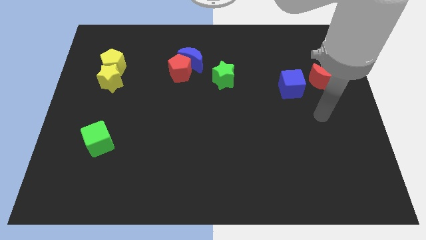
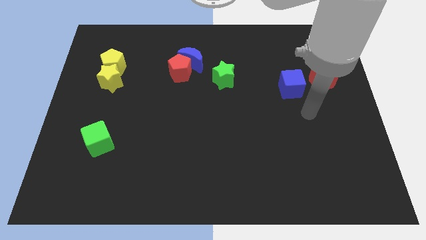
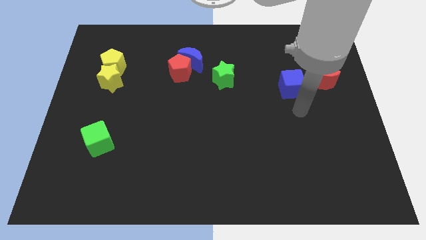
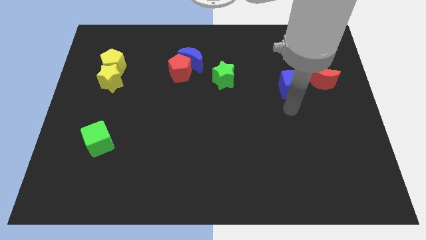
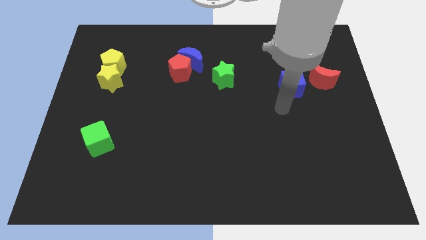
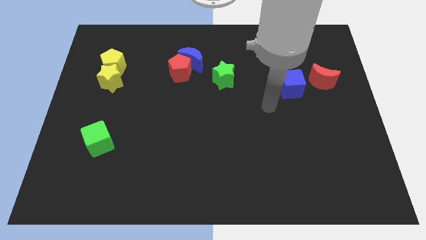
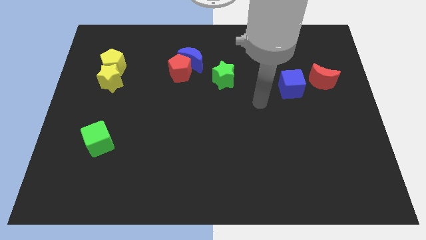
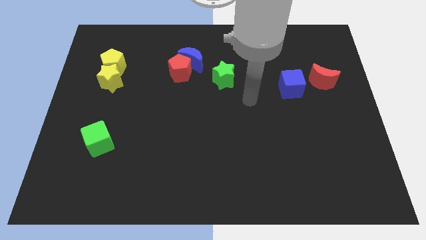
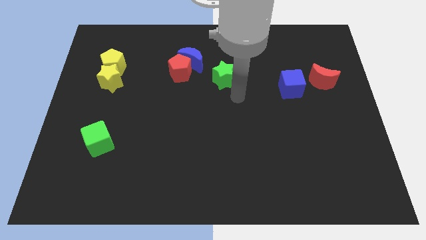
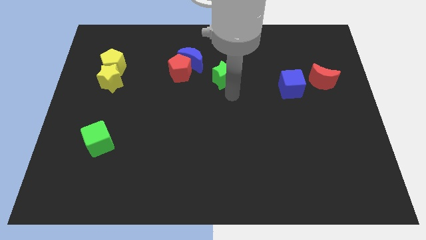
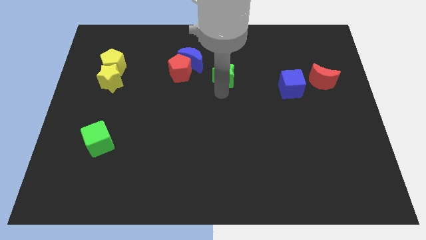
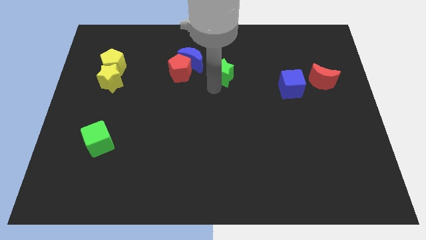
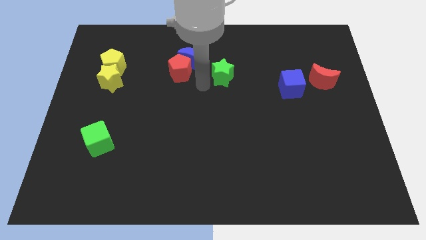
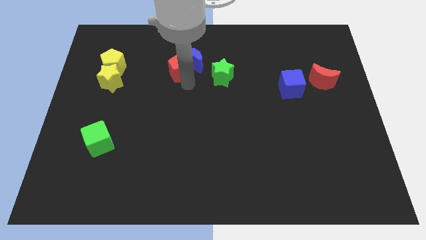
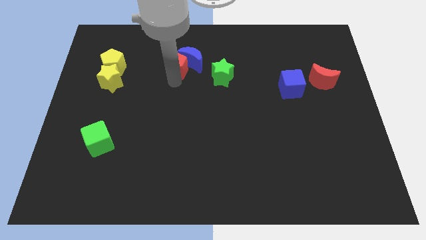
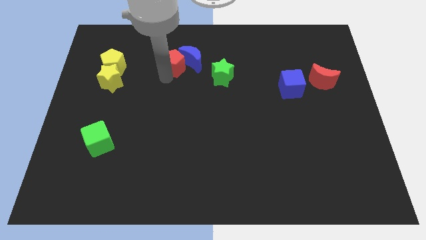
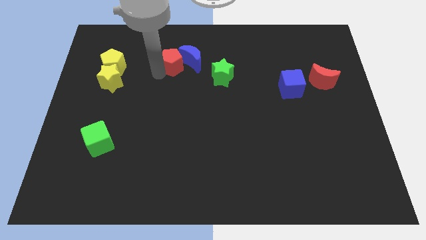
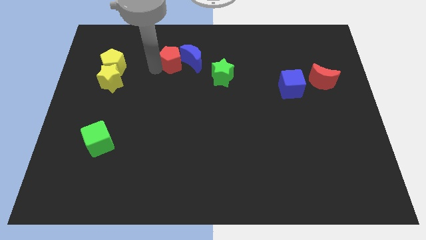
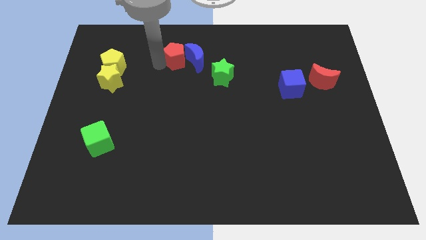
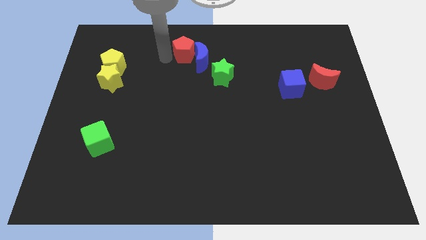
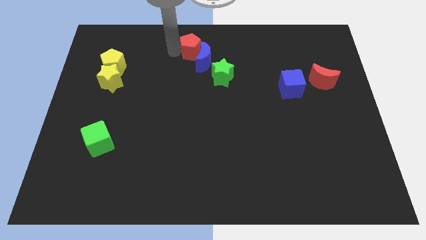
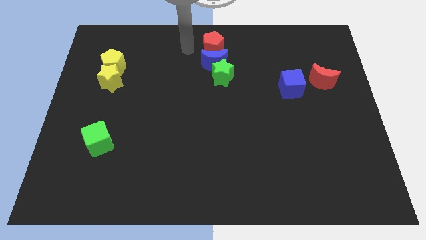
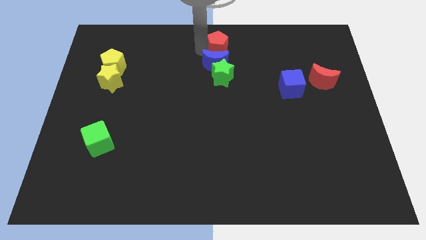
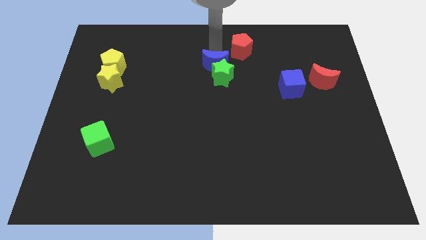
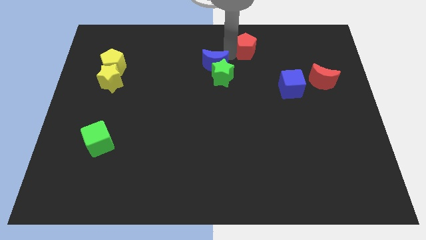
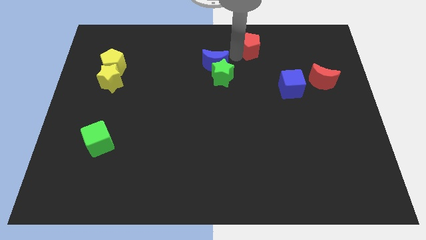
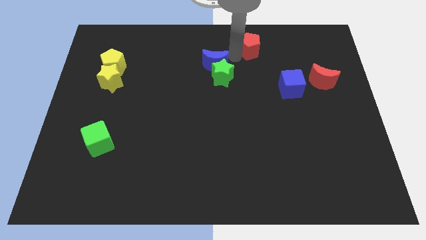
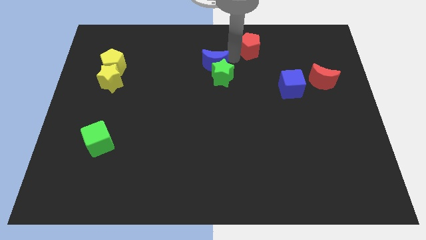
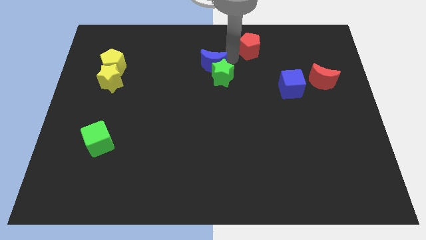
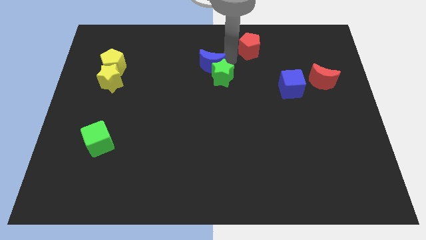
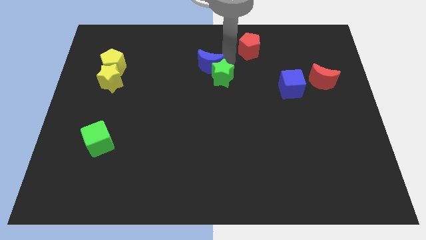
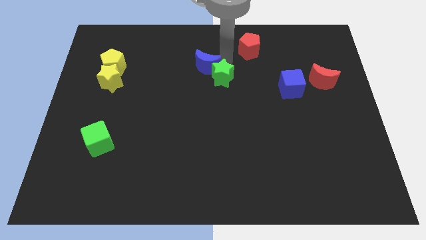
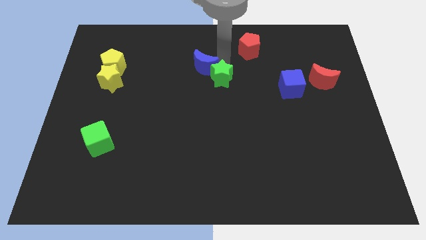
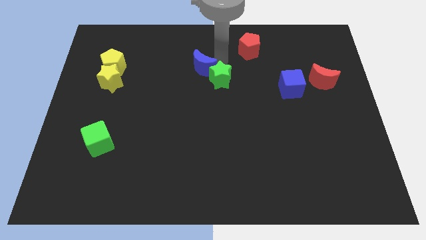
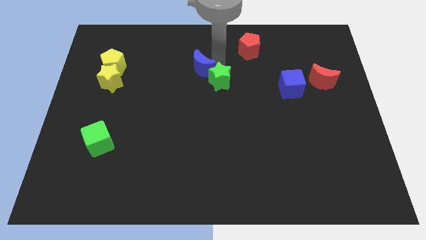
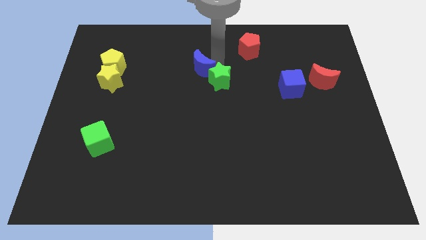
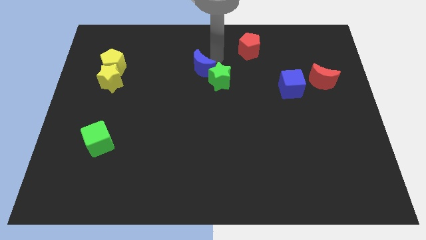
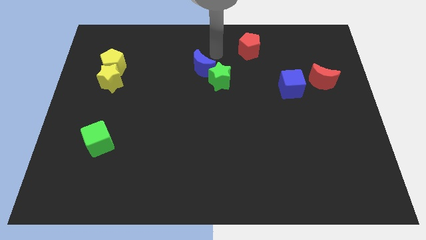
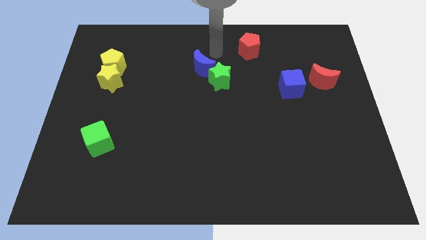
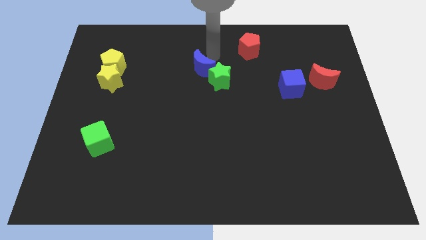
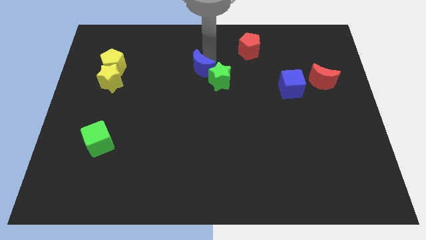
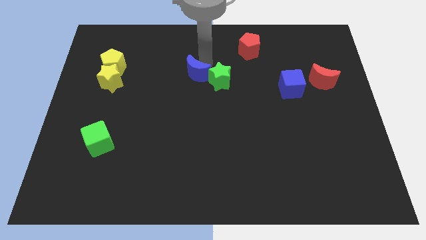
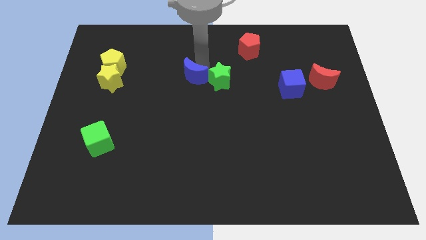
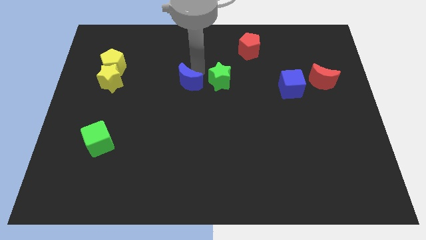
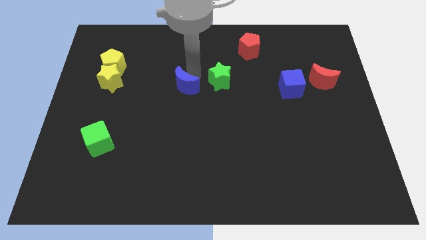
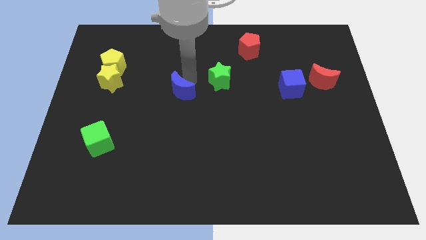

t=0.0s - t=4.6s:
slightly slide the blue moon down and left diagonally

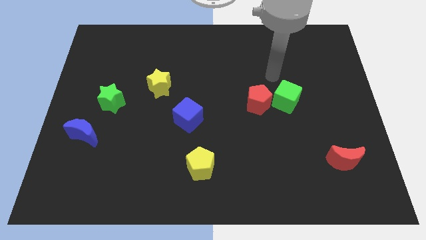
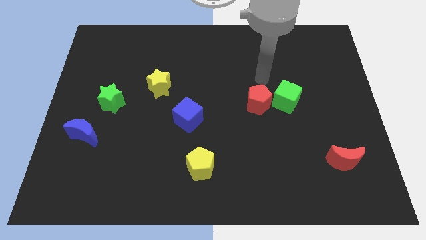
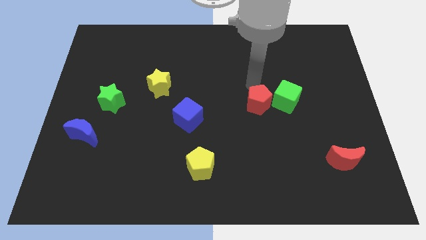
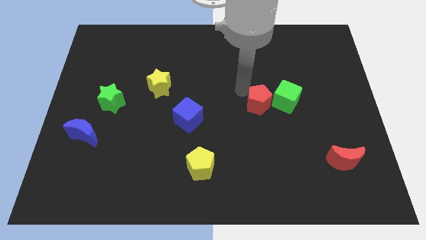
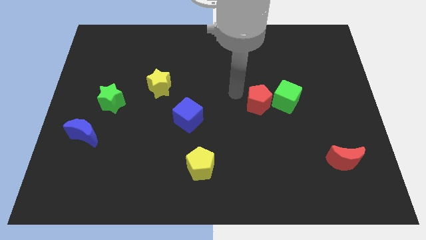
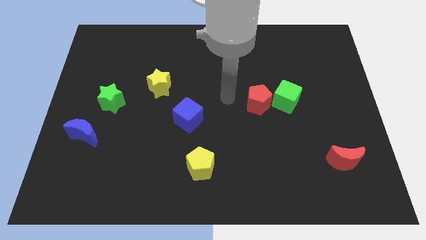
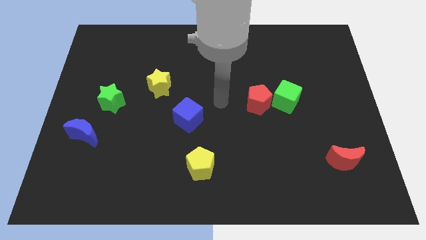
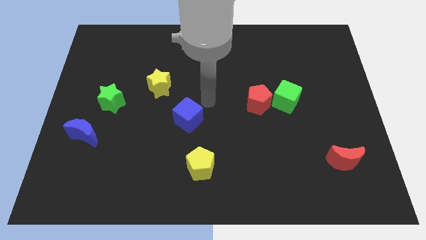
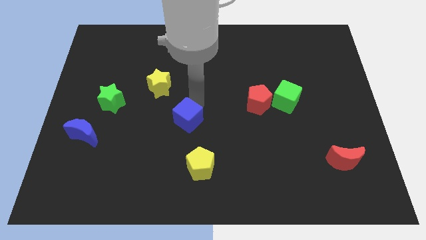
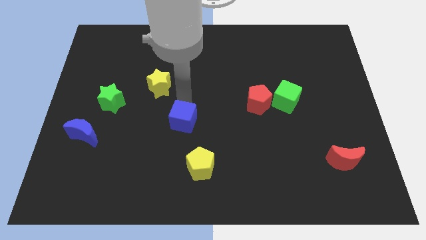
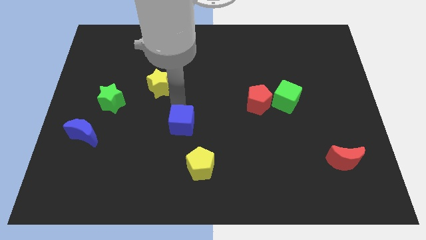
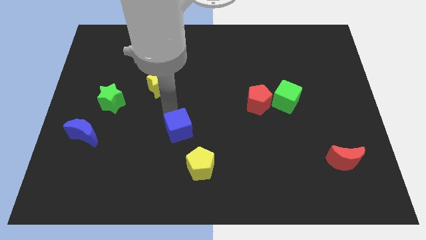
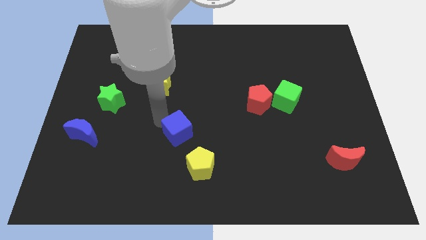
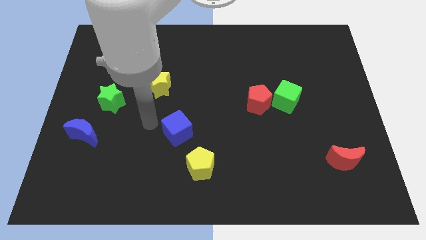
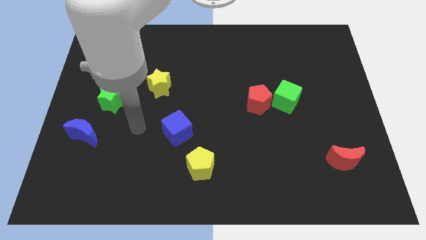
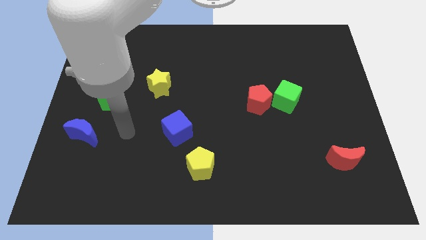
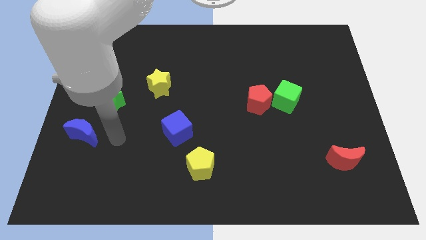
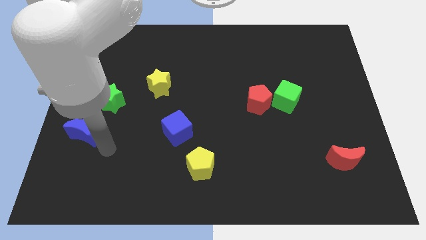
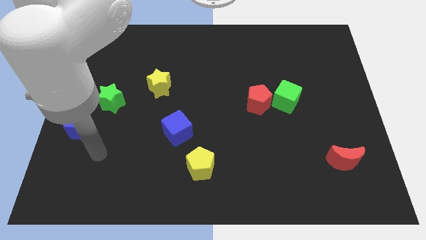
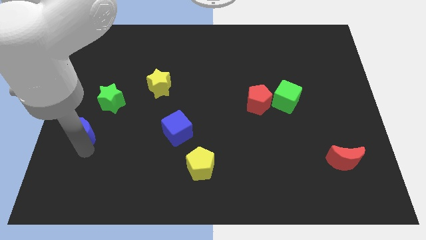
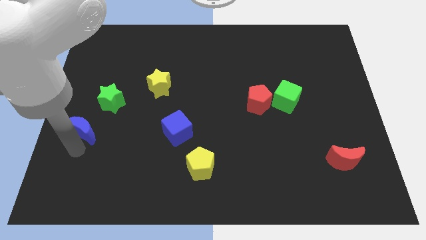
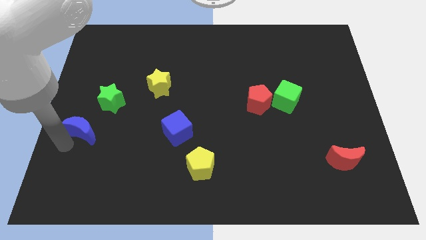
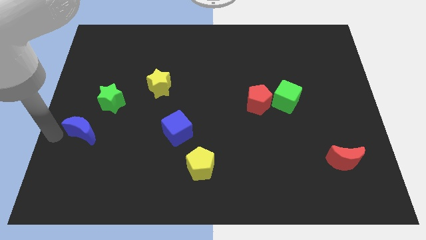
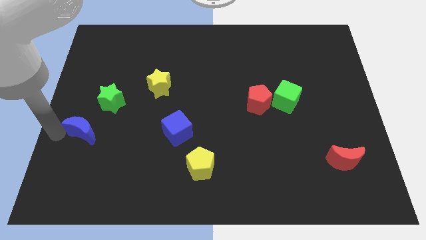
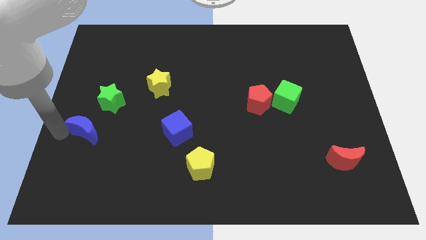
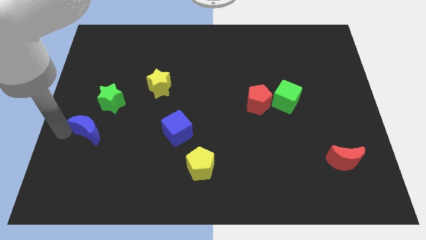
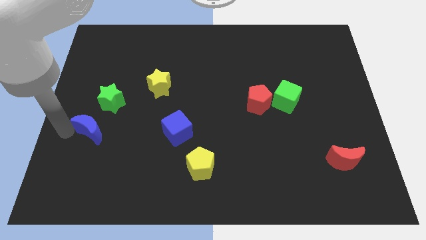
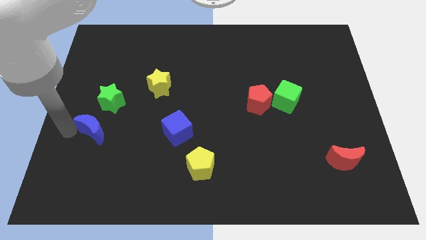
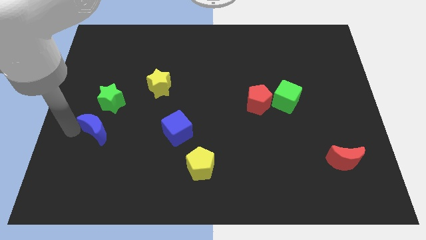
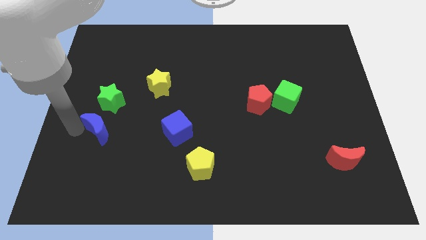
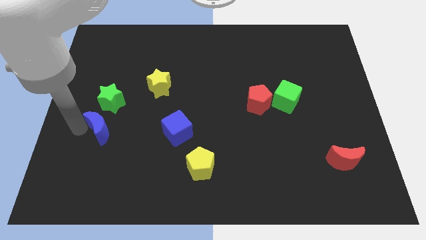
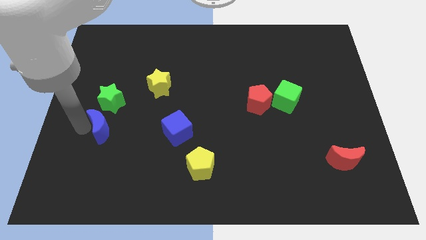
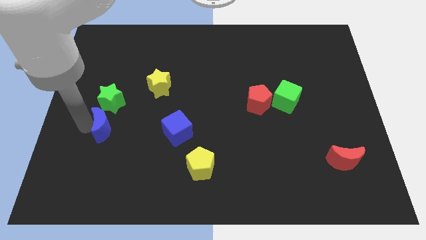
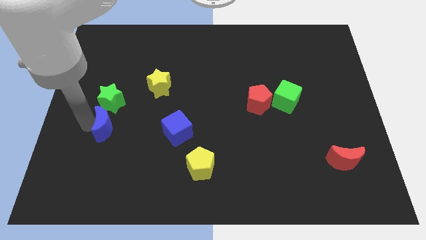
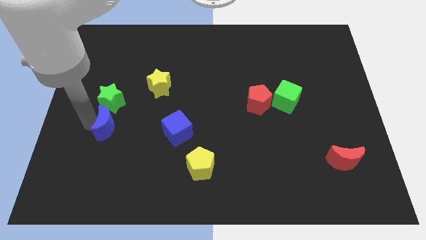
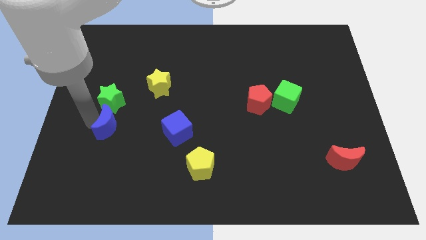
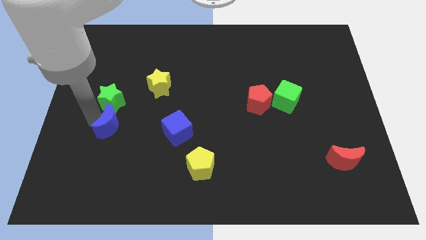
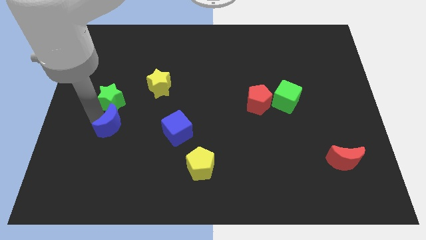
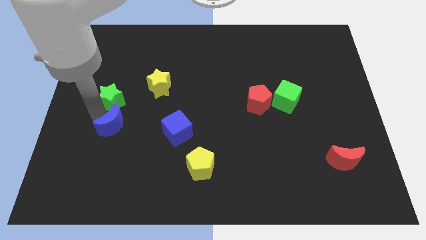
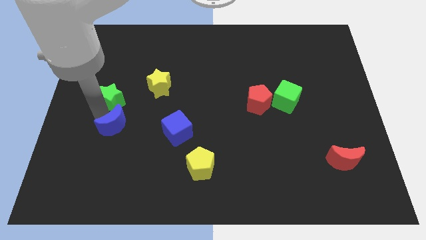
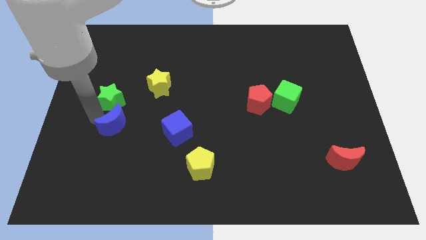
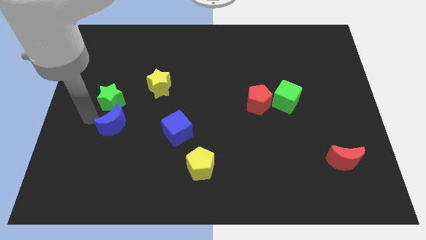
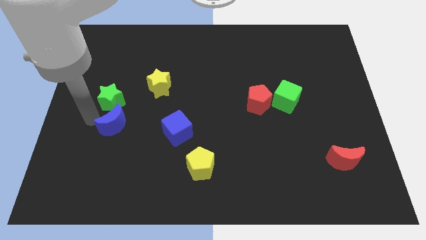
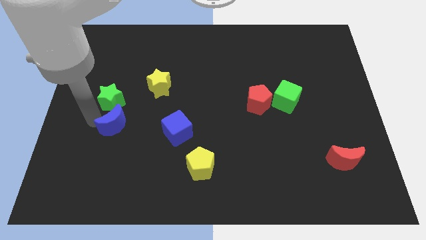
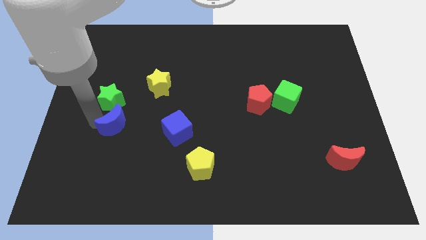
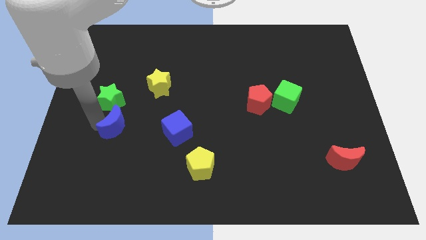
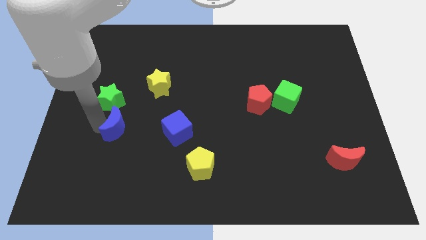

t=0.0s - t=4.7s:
move the blue moon to the right a little bit
